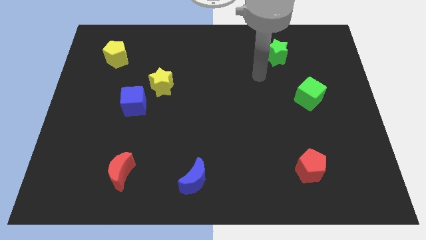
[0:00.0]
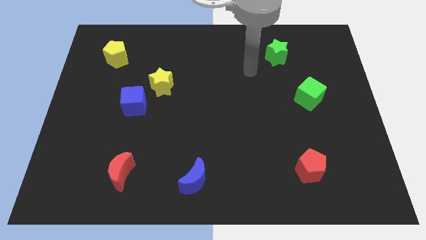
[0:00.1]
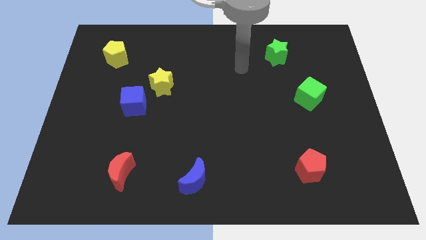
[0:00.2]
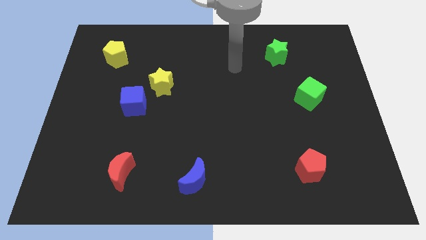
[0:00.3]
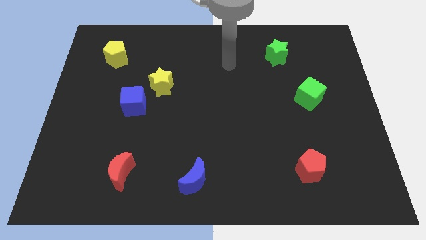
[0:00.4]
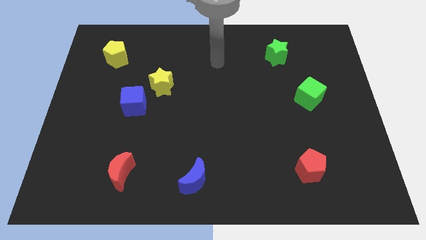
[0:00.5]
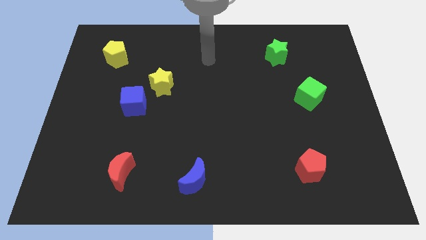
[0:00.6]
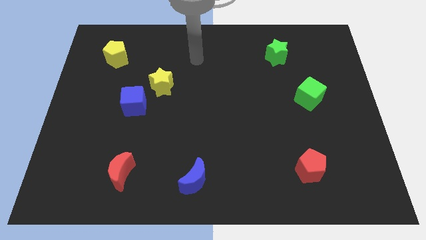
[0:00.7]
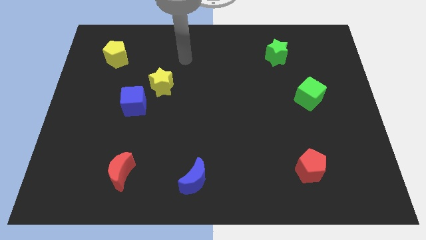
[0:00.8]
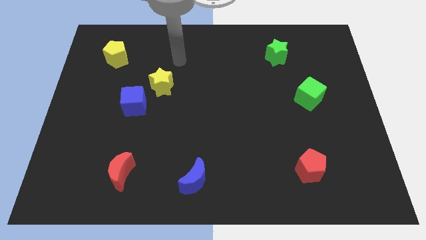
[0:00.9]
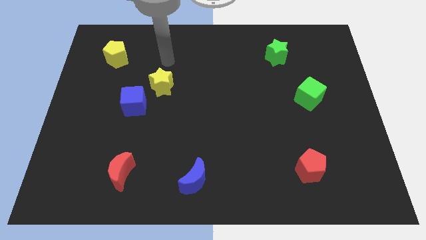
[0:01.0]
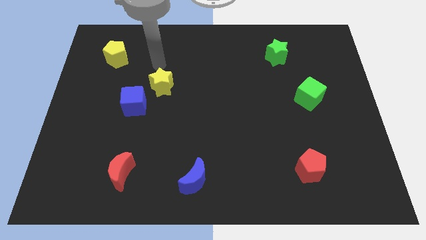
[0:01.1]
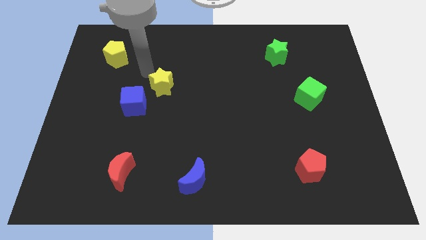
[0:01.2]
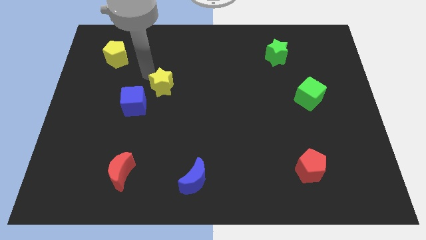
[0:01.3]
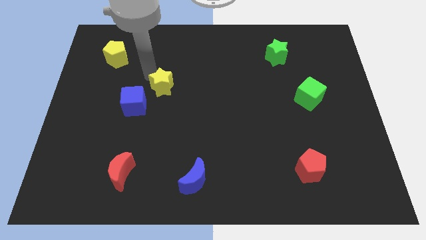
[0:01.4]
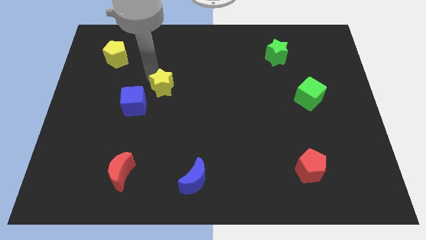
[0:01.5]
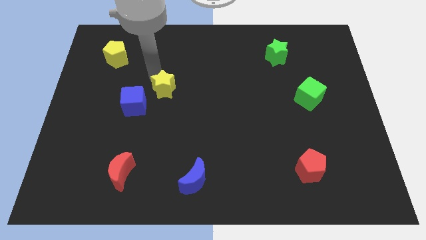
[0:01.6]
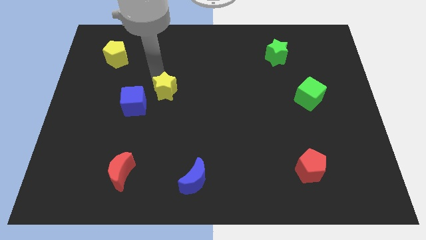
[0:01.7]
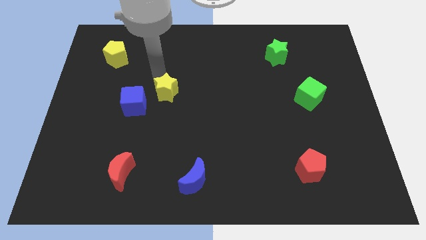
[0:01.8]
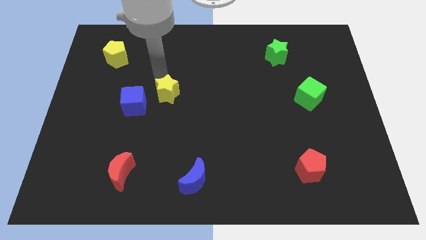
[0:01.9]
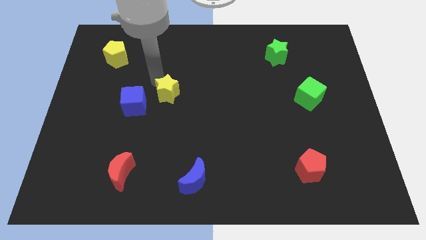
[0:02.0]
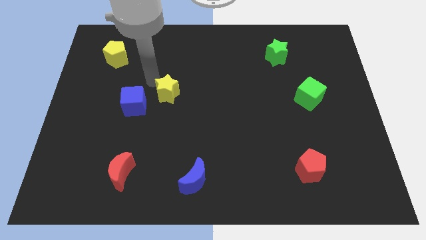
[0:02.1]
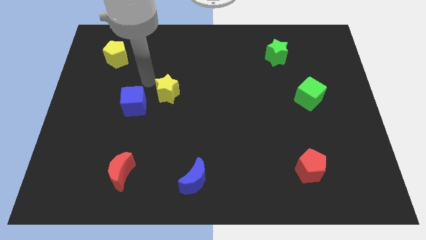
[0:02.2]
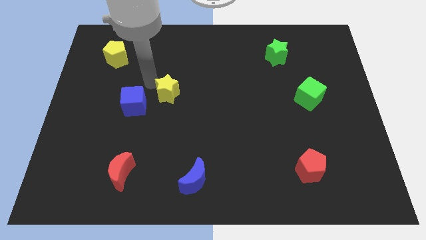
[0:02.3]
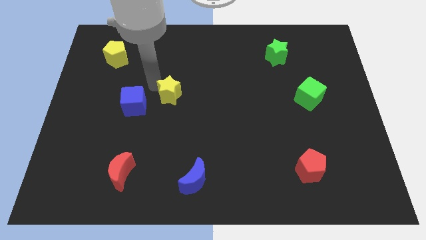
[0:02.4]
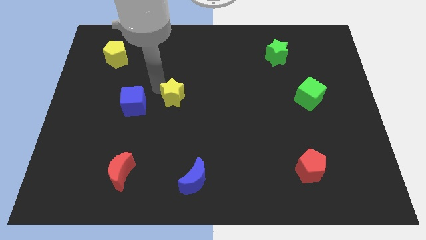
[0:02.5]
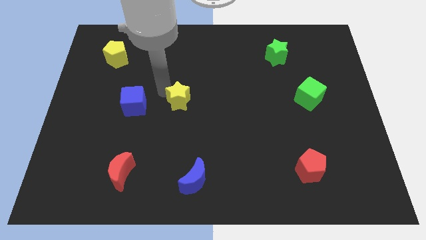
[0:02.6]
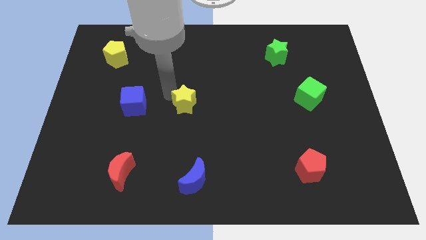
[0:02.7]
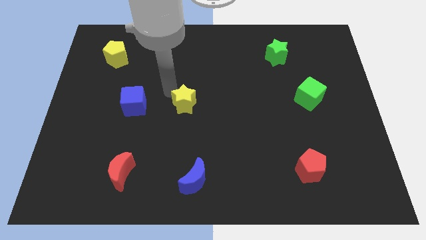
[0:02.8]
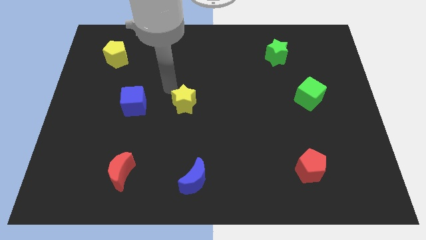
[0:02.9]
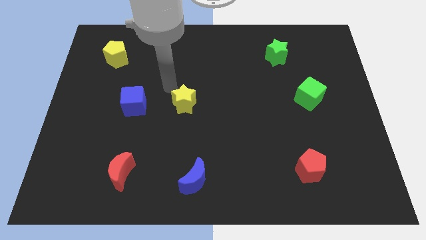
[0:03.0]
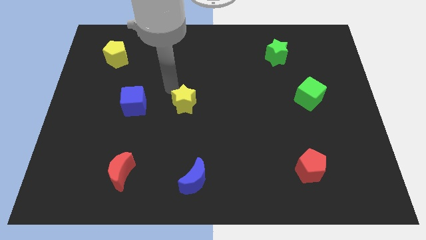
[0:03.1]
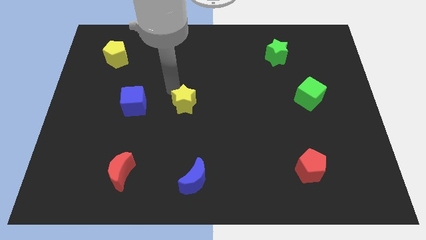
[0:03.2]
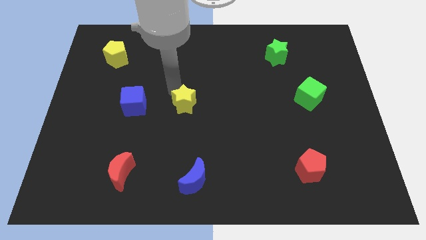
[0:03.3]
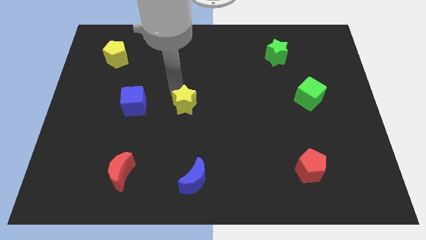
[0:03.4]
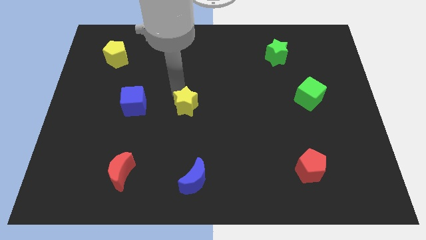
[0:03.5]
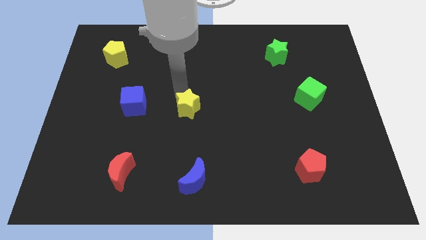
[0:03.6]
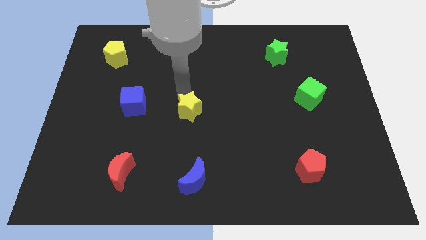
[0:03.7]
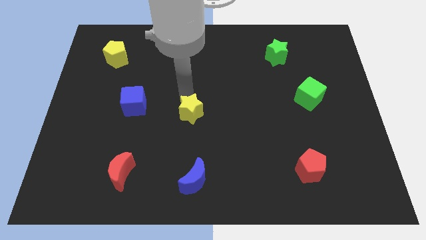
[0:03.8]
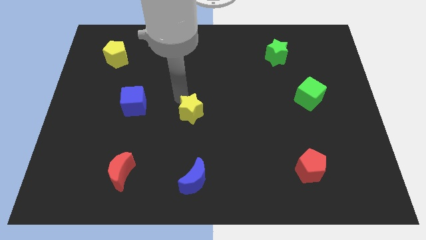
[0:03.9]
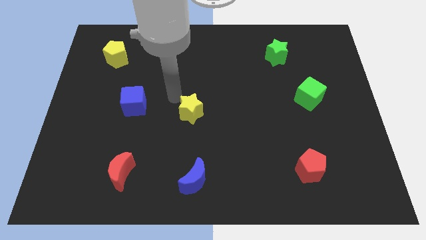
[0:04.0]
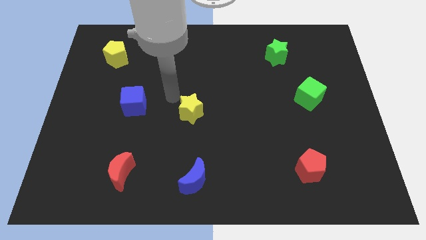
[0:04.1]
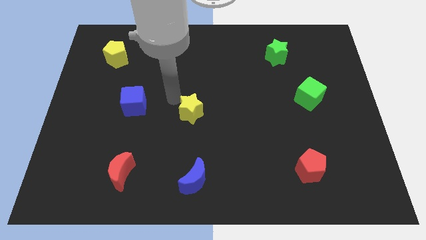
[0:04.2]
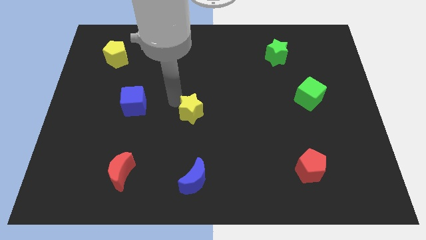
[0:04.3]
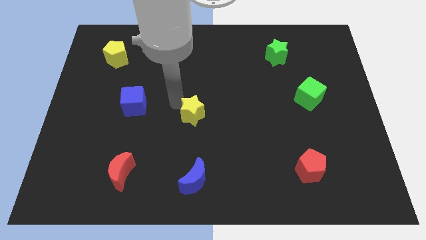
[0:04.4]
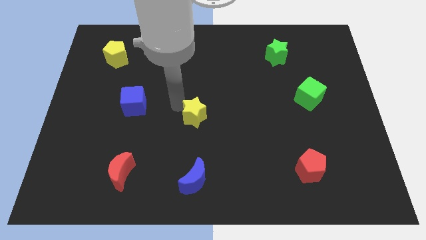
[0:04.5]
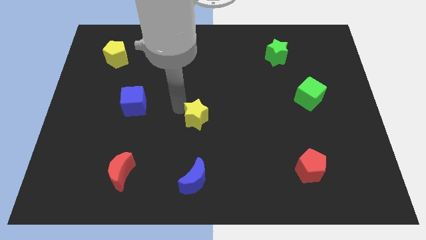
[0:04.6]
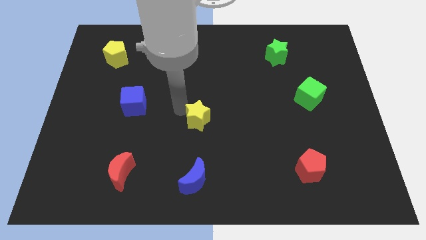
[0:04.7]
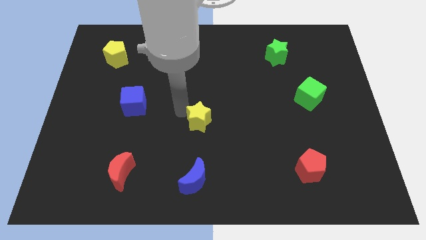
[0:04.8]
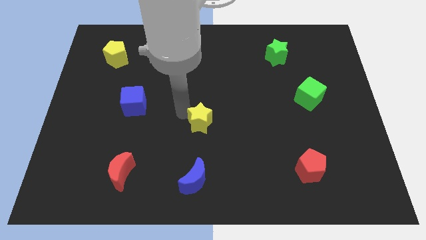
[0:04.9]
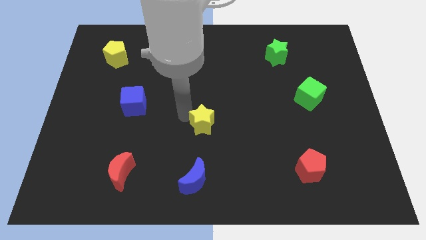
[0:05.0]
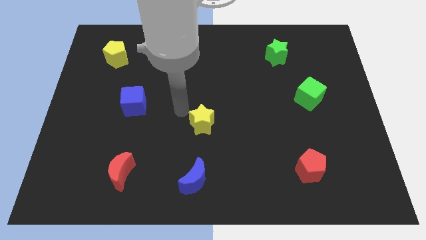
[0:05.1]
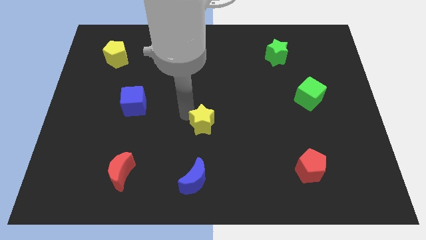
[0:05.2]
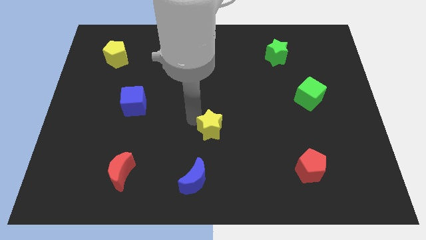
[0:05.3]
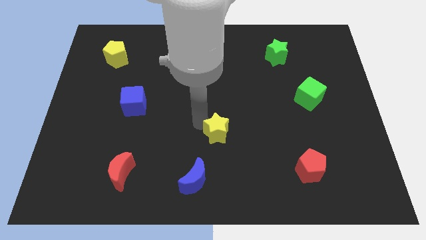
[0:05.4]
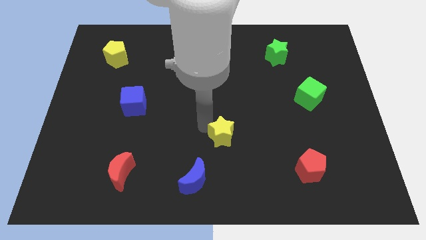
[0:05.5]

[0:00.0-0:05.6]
push the yellow star diagonally downwards and to the right

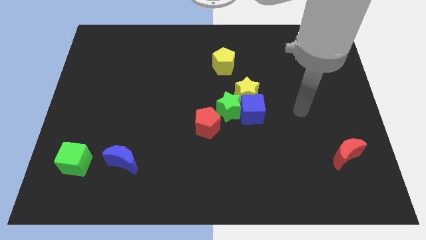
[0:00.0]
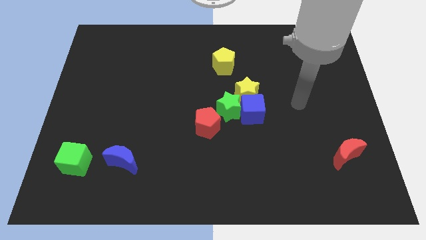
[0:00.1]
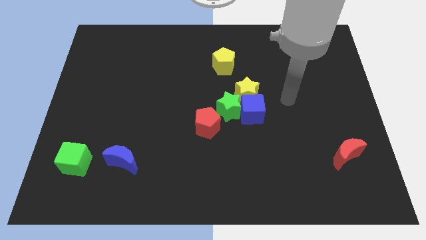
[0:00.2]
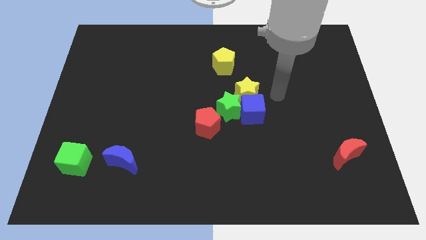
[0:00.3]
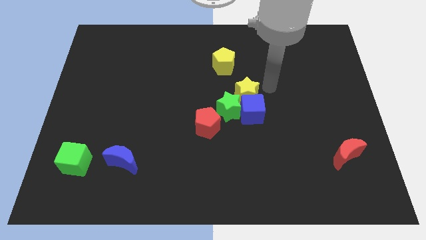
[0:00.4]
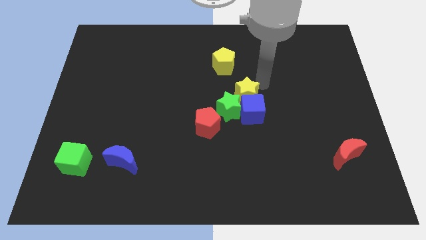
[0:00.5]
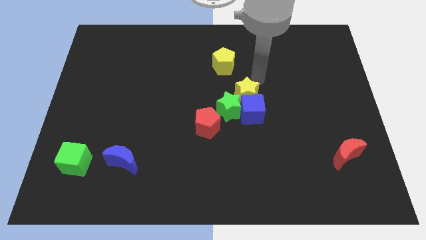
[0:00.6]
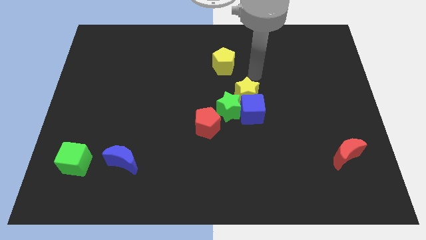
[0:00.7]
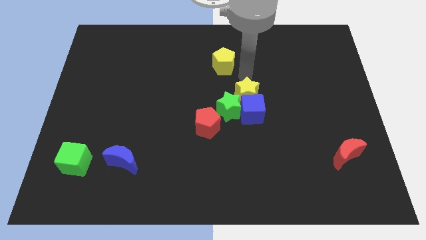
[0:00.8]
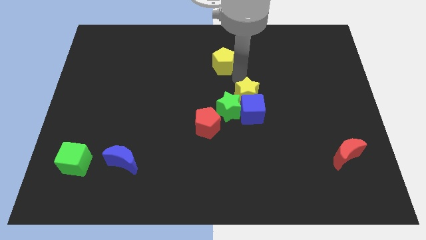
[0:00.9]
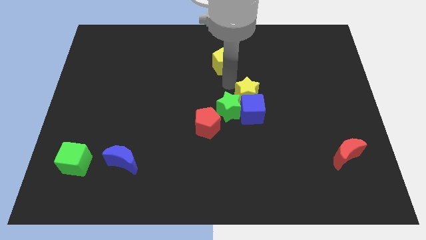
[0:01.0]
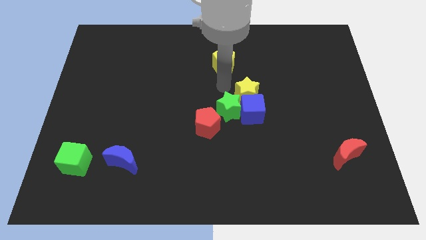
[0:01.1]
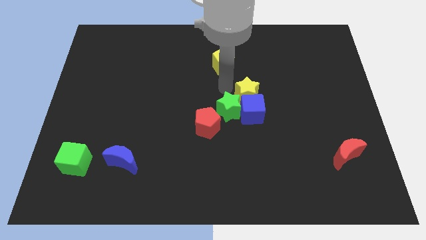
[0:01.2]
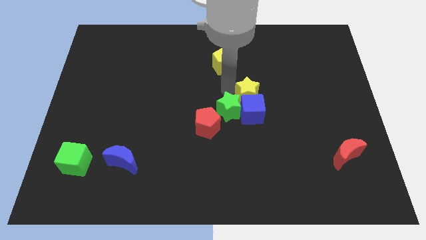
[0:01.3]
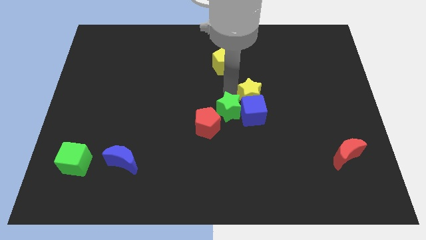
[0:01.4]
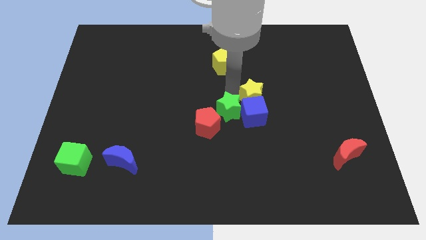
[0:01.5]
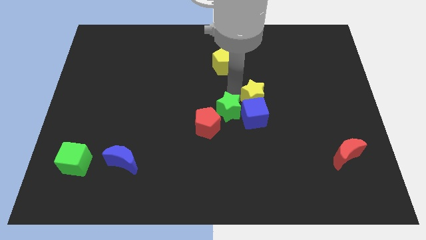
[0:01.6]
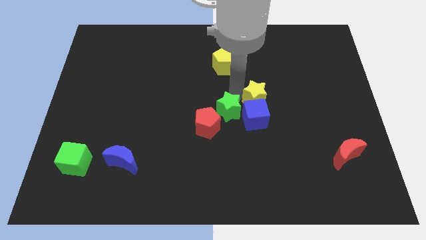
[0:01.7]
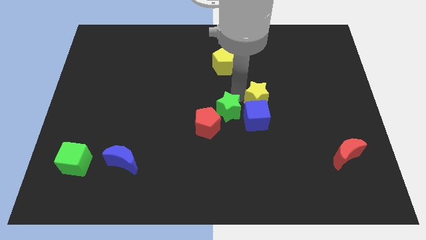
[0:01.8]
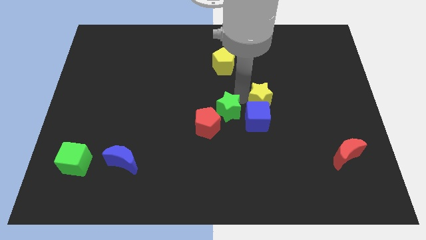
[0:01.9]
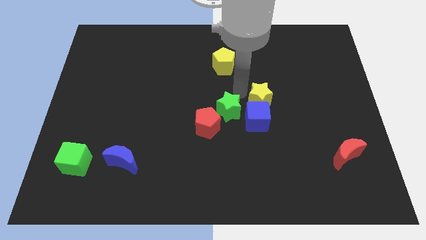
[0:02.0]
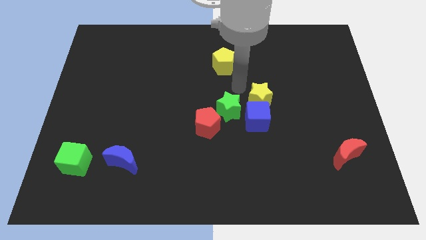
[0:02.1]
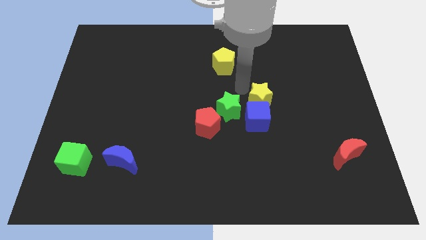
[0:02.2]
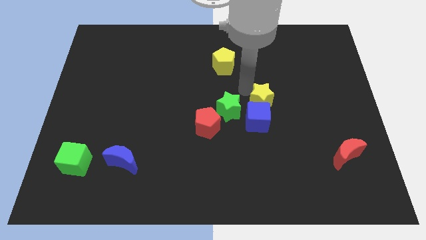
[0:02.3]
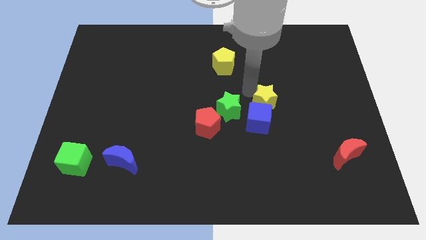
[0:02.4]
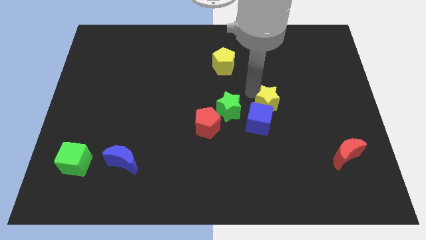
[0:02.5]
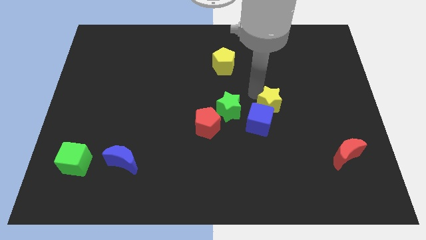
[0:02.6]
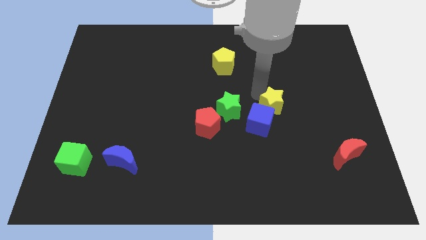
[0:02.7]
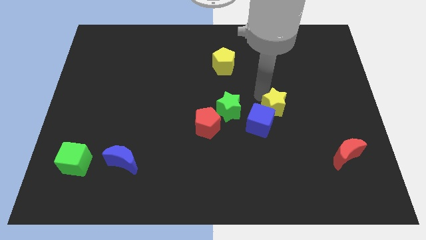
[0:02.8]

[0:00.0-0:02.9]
slightly slide the yellow star down and then right

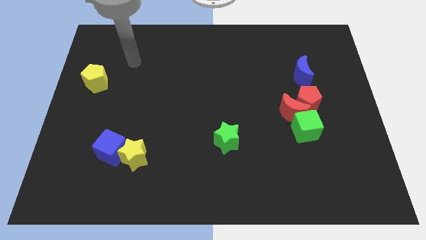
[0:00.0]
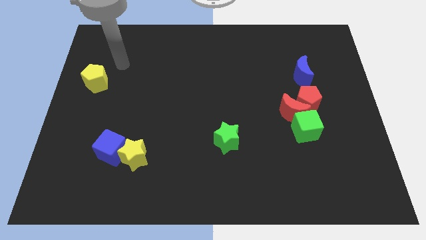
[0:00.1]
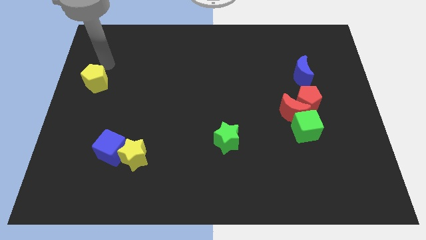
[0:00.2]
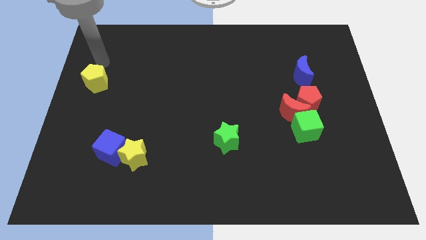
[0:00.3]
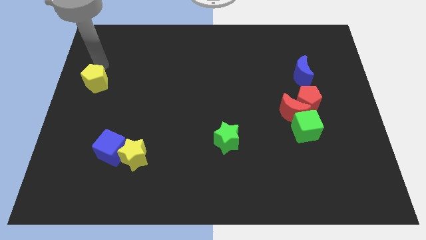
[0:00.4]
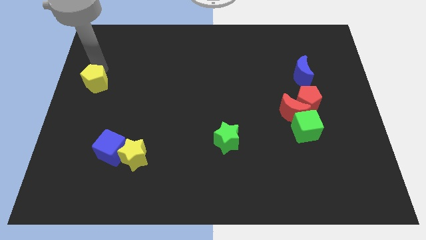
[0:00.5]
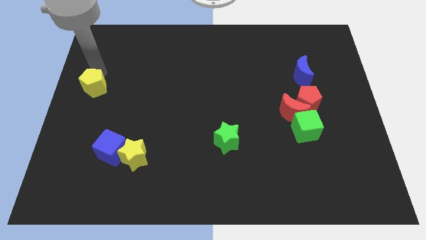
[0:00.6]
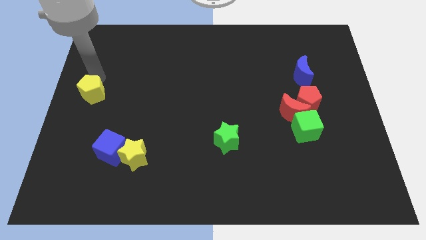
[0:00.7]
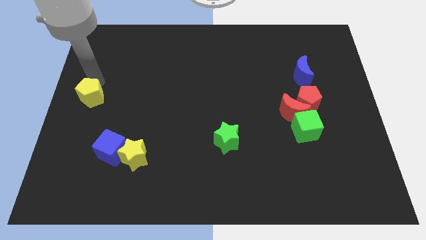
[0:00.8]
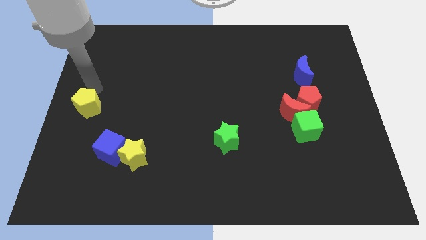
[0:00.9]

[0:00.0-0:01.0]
push the yellow pentagon a little downwards
